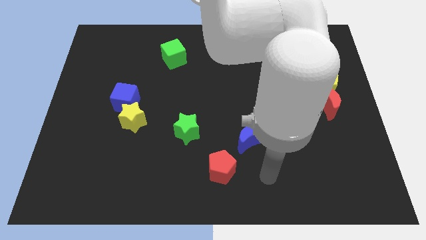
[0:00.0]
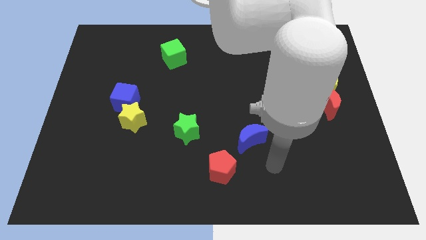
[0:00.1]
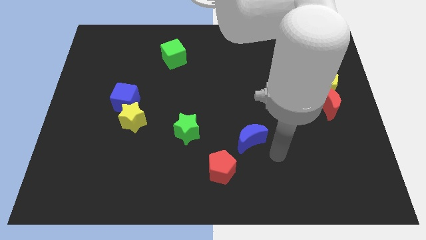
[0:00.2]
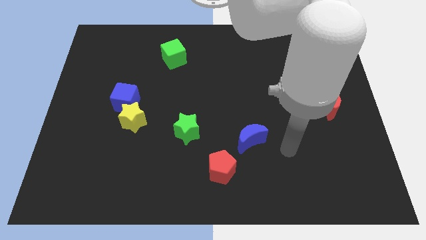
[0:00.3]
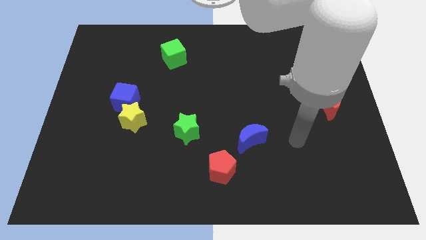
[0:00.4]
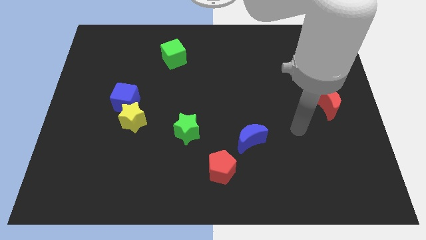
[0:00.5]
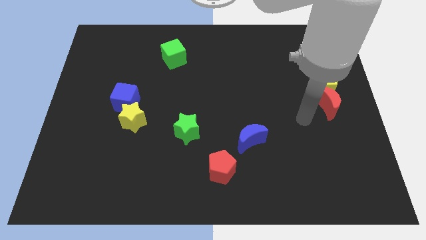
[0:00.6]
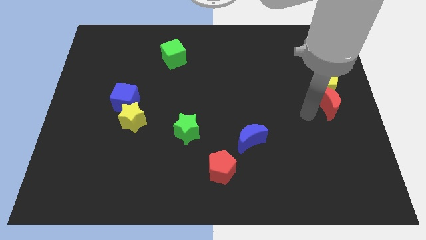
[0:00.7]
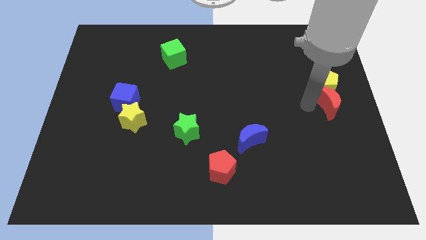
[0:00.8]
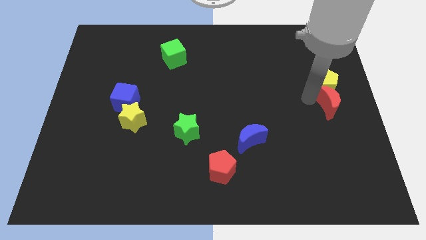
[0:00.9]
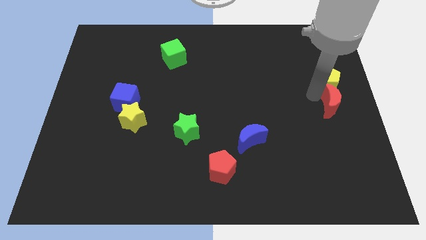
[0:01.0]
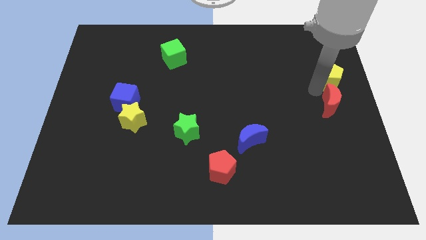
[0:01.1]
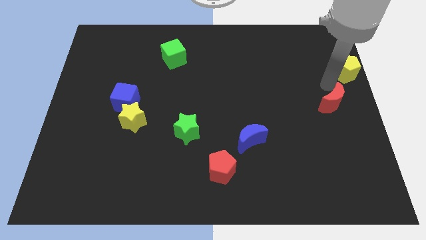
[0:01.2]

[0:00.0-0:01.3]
pull the red moon apart from the yellow pentagon

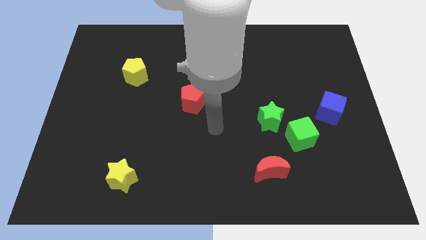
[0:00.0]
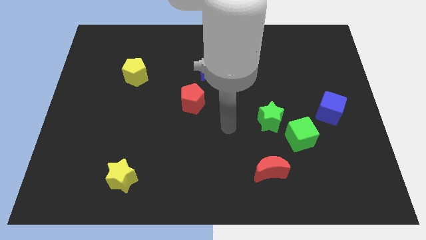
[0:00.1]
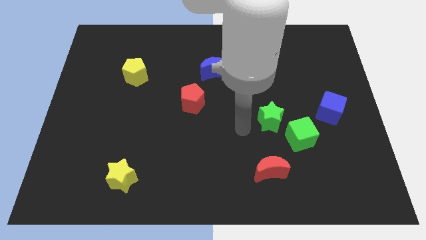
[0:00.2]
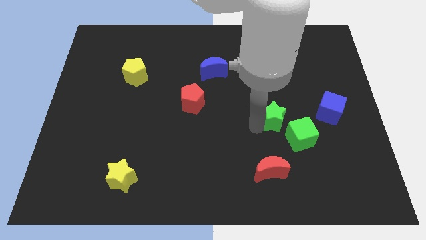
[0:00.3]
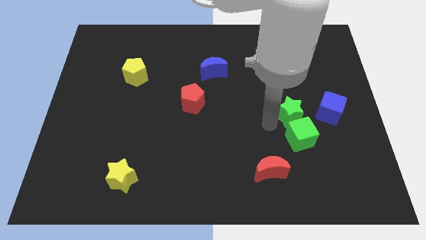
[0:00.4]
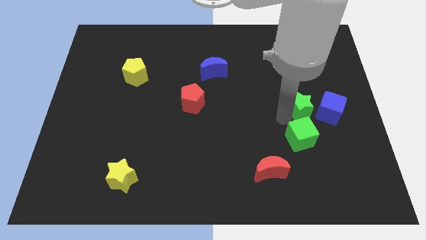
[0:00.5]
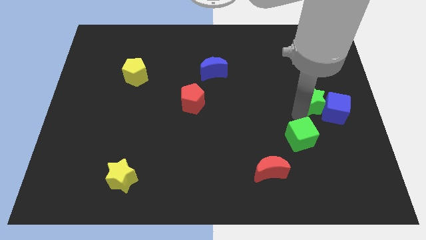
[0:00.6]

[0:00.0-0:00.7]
pull the green cube apart from the green star

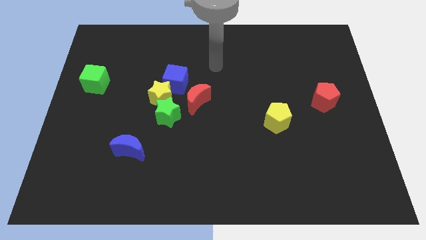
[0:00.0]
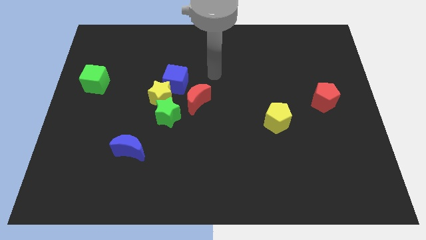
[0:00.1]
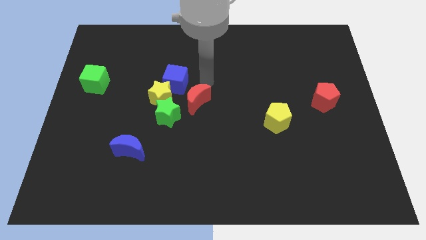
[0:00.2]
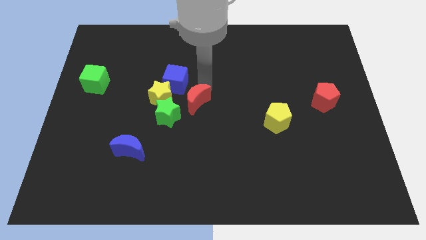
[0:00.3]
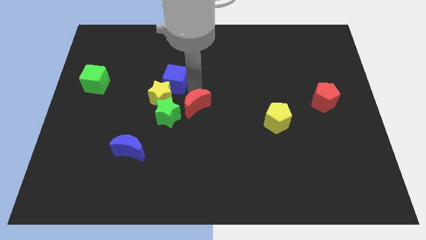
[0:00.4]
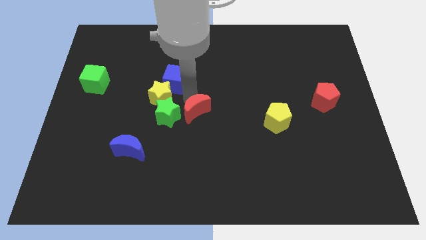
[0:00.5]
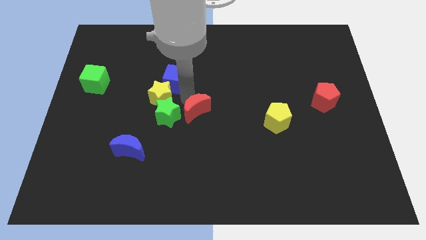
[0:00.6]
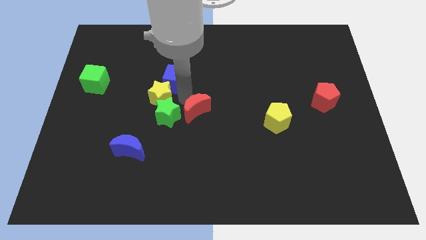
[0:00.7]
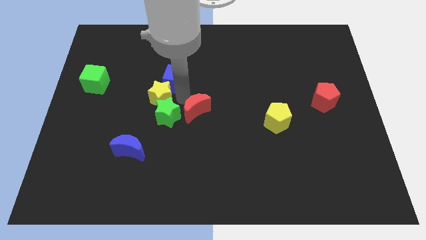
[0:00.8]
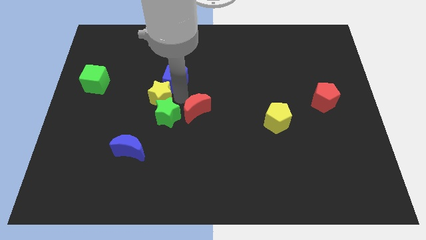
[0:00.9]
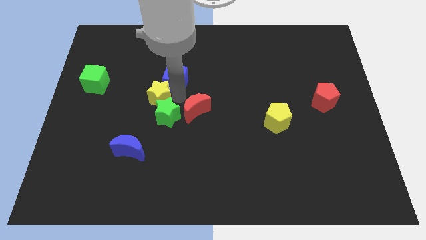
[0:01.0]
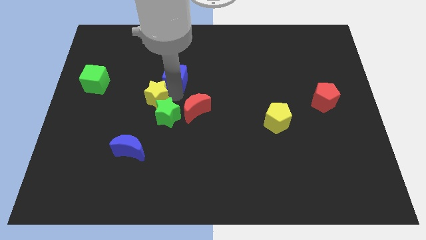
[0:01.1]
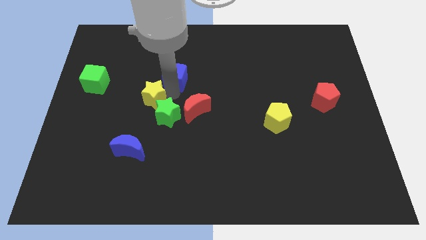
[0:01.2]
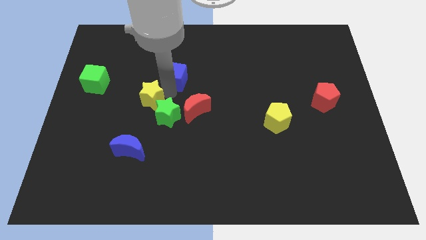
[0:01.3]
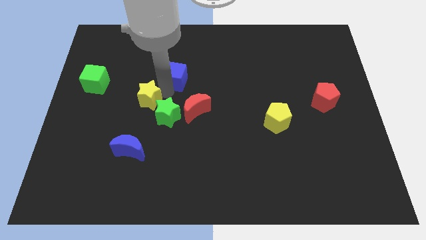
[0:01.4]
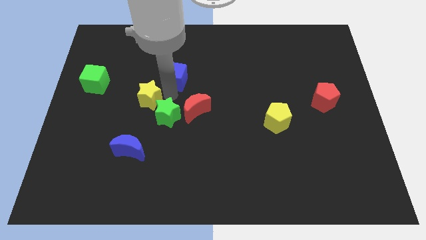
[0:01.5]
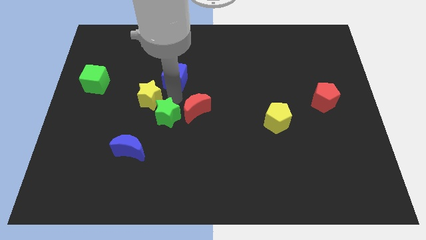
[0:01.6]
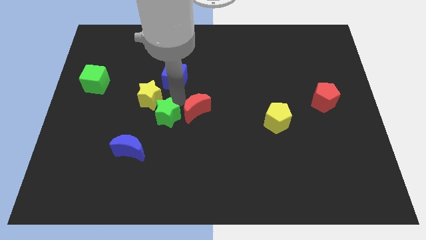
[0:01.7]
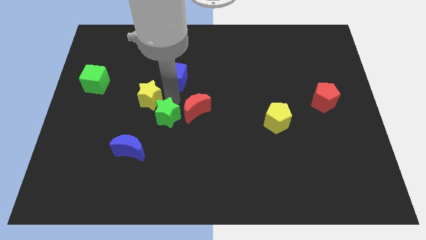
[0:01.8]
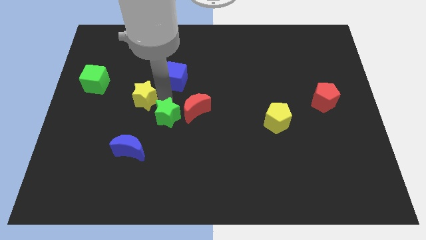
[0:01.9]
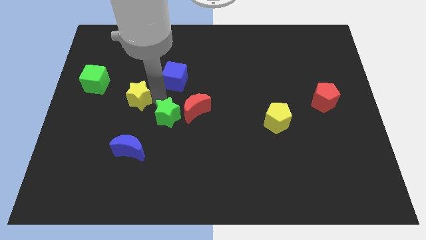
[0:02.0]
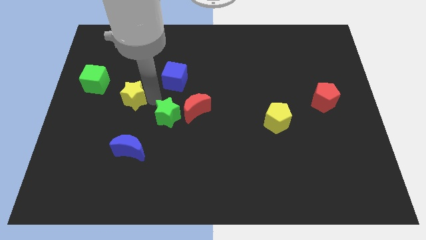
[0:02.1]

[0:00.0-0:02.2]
pull the yellow star apart from the green star, blue cube, and red moon

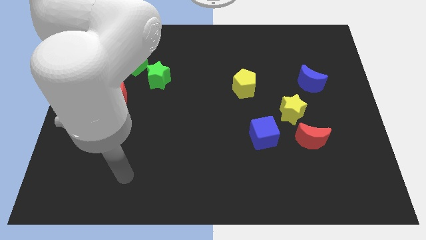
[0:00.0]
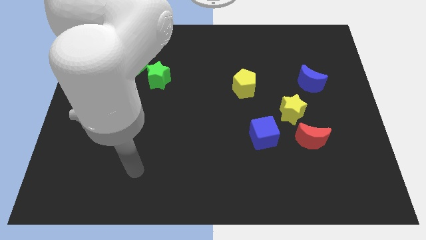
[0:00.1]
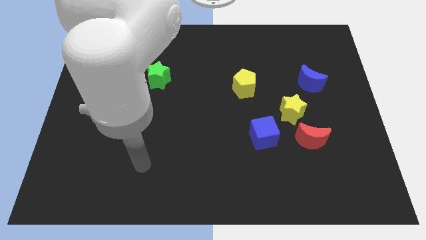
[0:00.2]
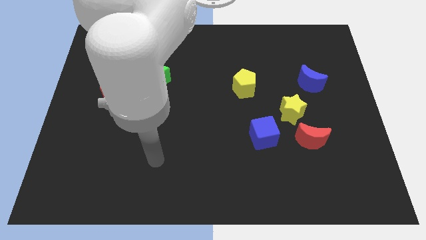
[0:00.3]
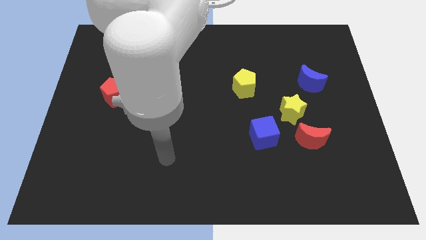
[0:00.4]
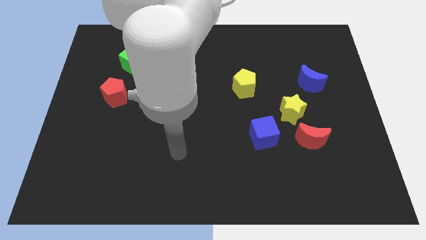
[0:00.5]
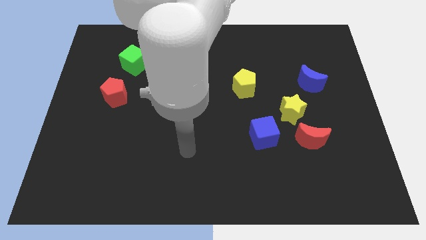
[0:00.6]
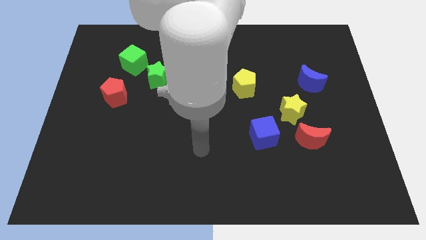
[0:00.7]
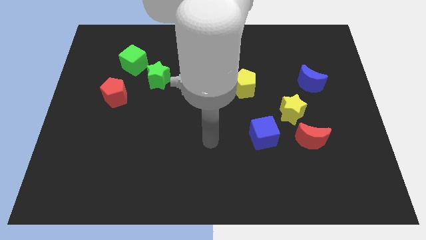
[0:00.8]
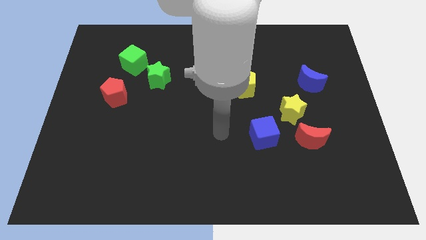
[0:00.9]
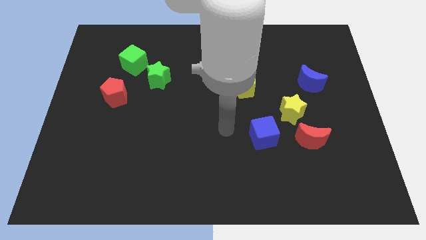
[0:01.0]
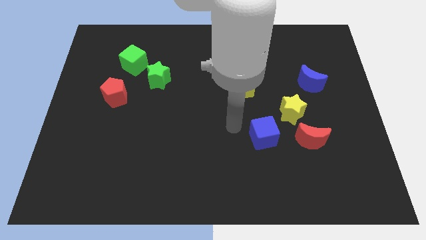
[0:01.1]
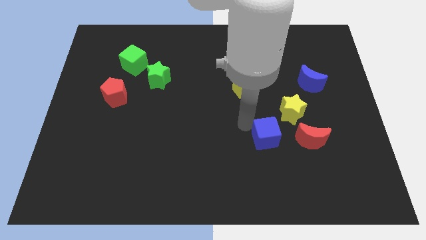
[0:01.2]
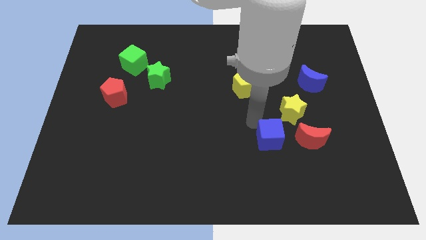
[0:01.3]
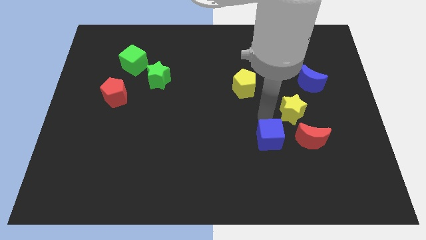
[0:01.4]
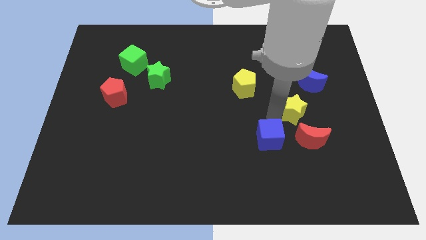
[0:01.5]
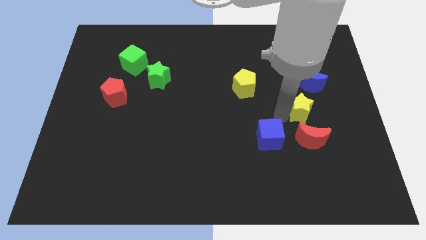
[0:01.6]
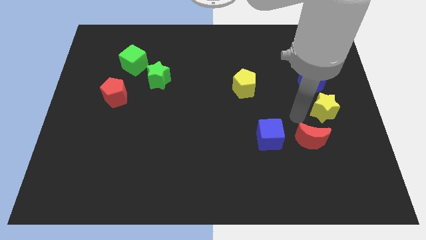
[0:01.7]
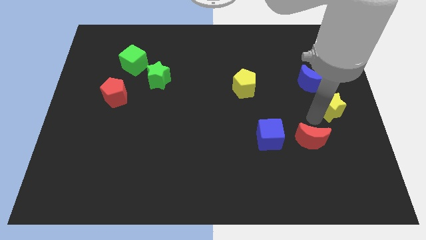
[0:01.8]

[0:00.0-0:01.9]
move the red moon away from the yellow star

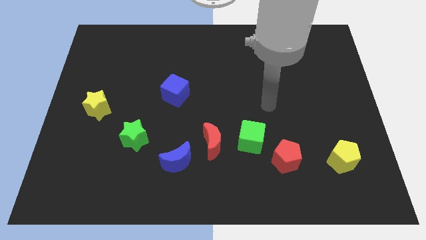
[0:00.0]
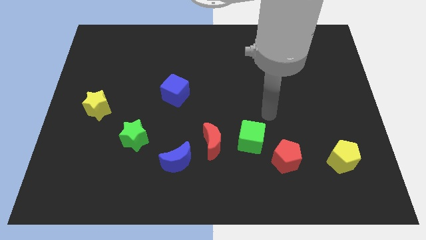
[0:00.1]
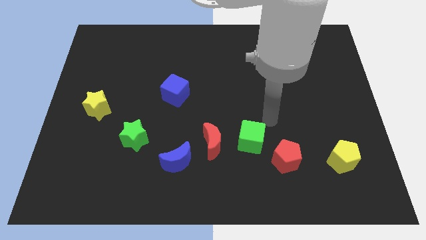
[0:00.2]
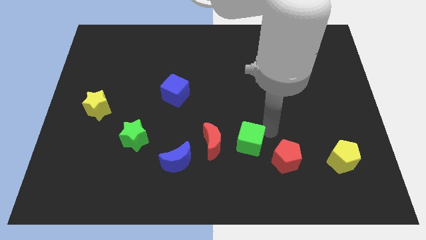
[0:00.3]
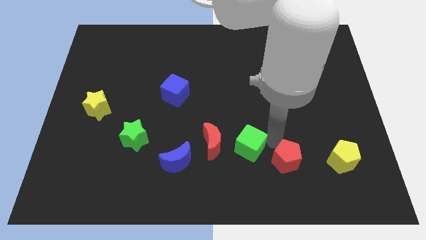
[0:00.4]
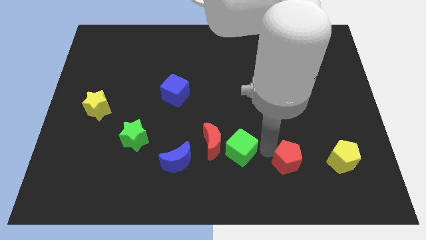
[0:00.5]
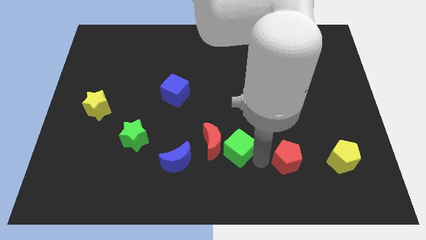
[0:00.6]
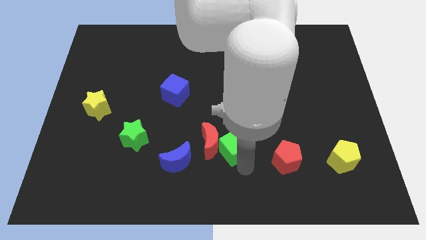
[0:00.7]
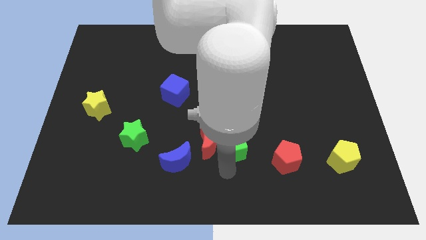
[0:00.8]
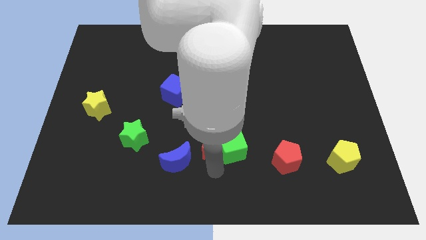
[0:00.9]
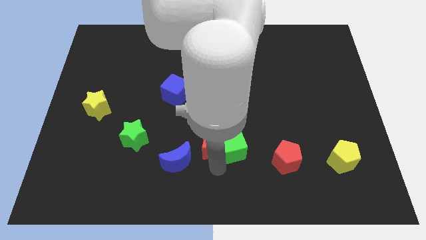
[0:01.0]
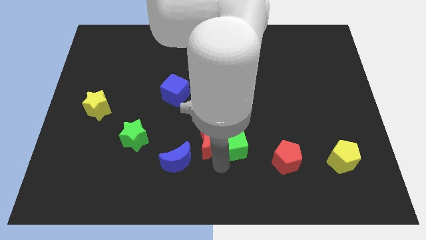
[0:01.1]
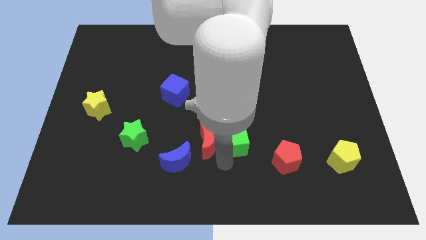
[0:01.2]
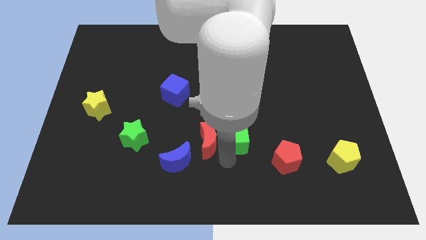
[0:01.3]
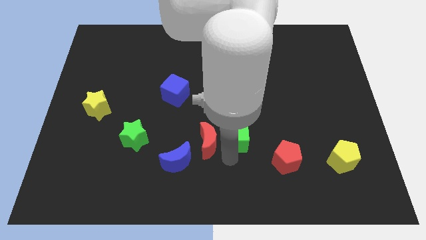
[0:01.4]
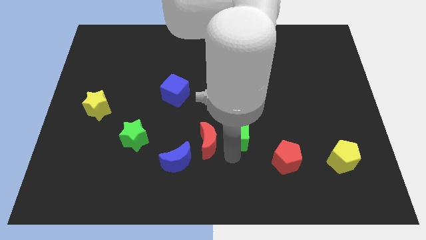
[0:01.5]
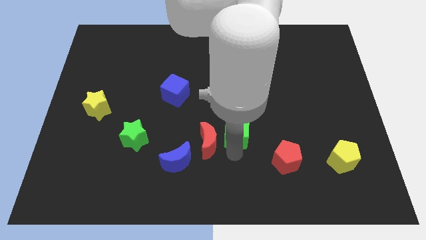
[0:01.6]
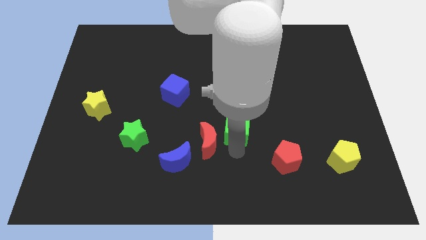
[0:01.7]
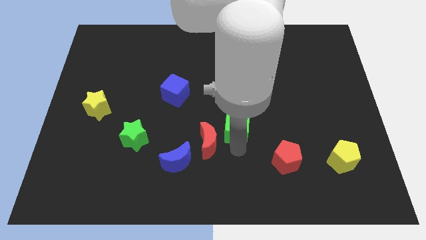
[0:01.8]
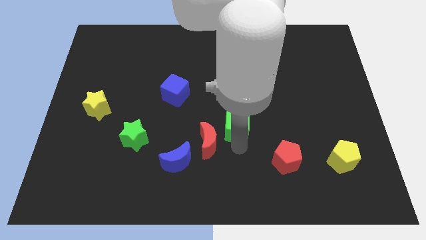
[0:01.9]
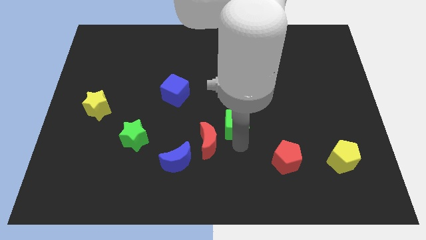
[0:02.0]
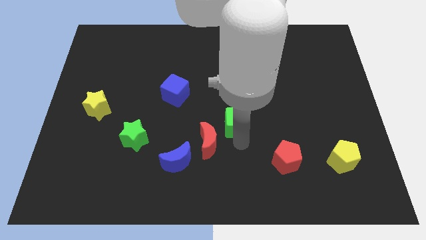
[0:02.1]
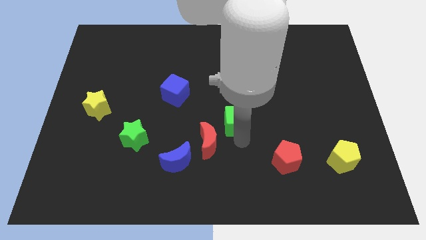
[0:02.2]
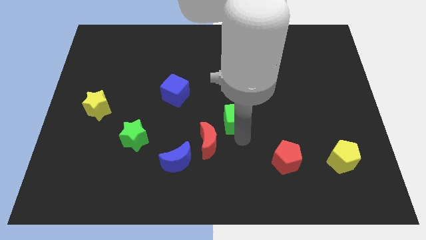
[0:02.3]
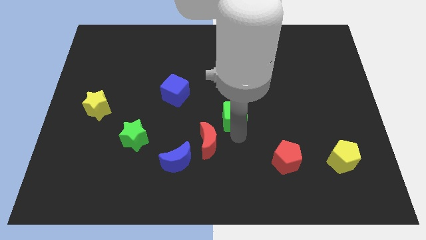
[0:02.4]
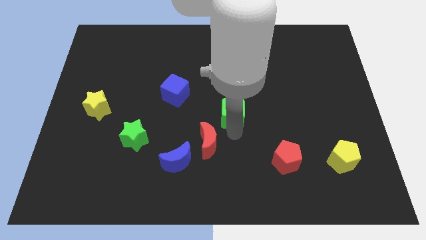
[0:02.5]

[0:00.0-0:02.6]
move the green cube away from the red moon and red pentagon

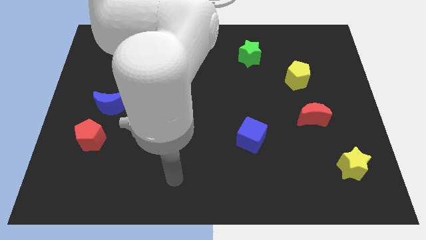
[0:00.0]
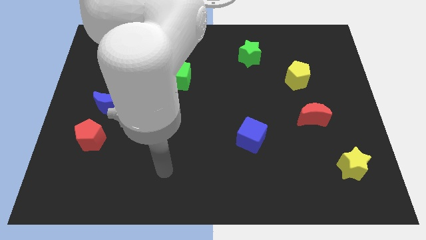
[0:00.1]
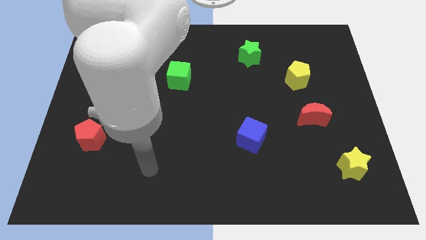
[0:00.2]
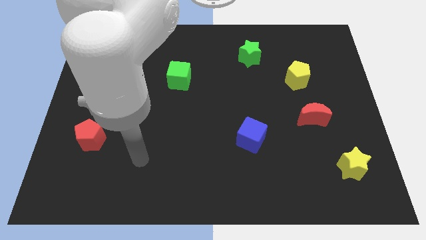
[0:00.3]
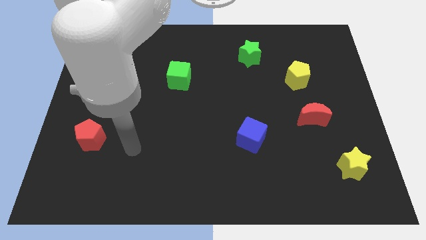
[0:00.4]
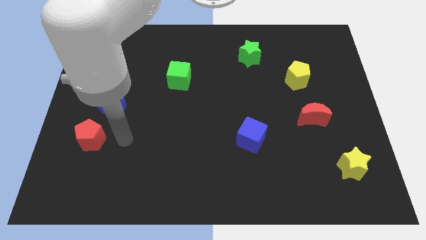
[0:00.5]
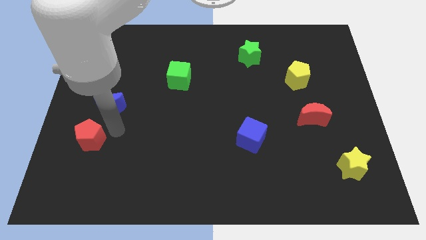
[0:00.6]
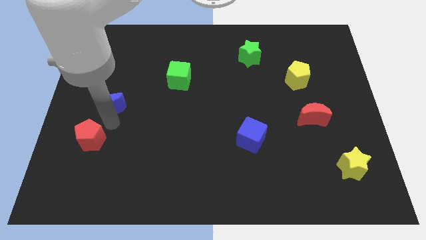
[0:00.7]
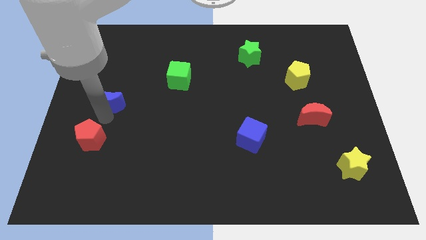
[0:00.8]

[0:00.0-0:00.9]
pull the red pentagon apart from the blue moon
